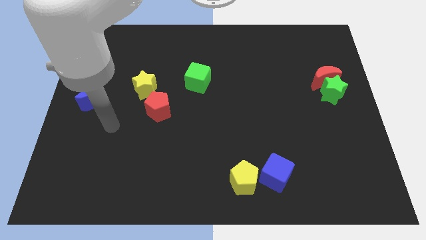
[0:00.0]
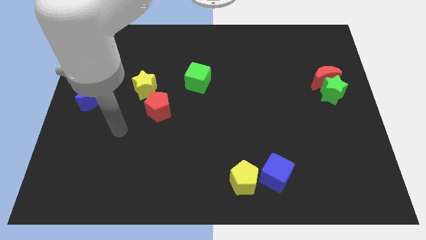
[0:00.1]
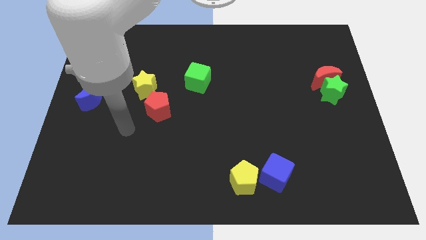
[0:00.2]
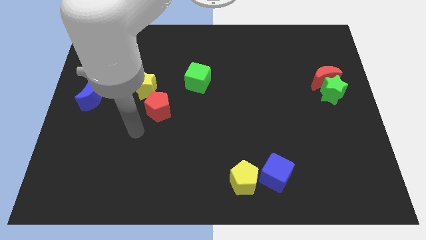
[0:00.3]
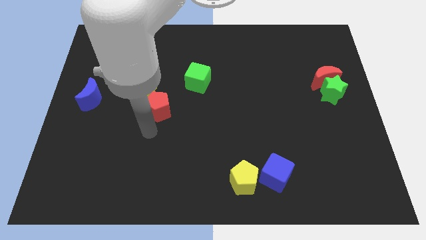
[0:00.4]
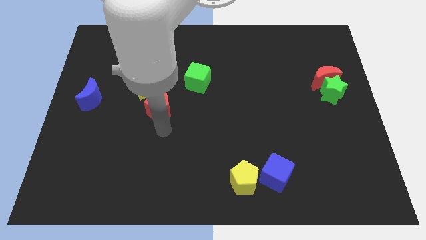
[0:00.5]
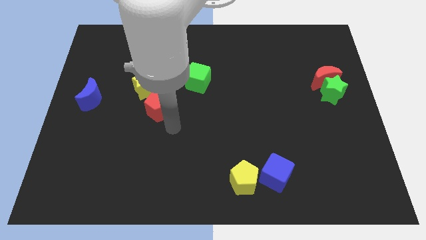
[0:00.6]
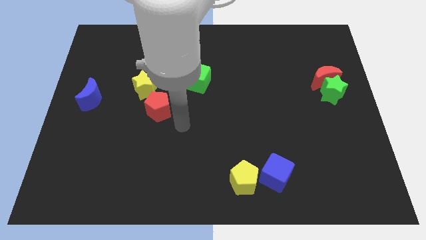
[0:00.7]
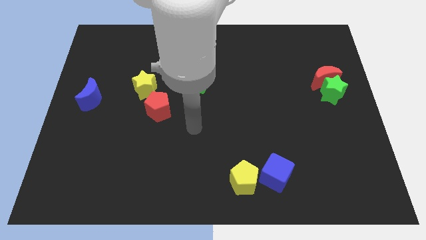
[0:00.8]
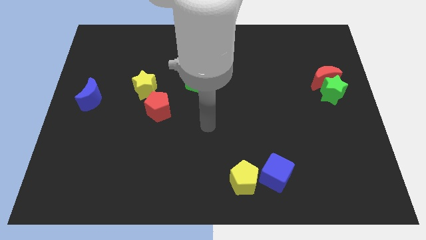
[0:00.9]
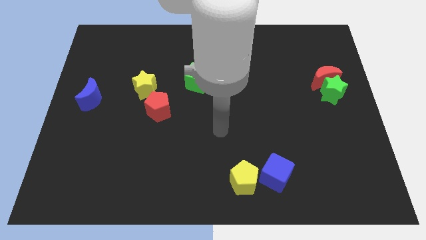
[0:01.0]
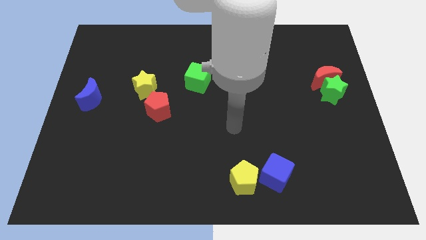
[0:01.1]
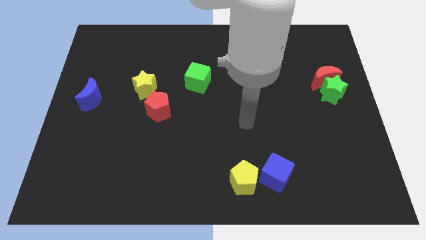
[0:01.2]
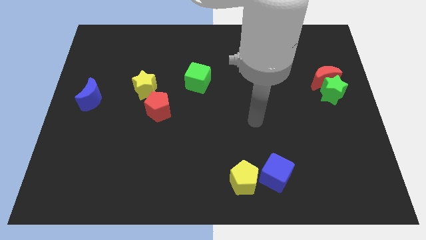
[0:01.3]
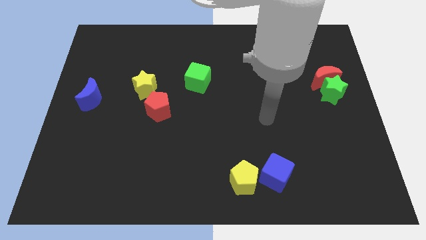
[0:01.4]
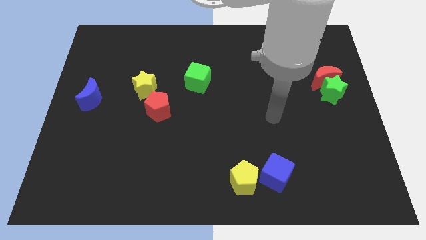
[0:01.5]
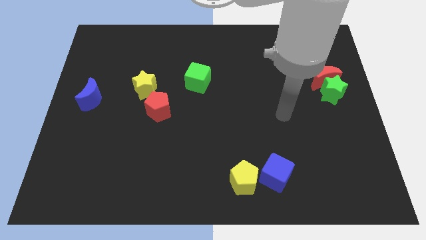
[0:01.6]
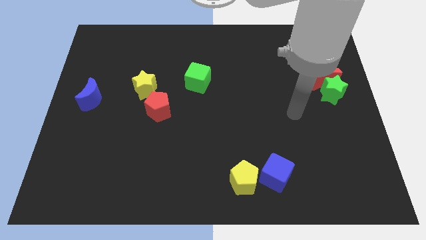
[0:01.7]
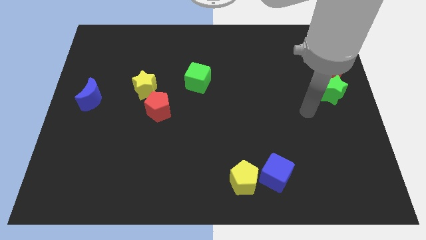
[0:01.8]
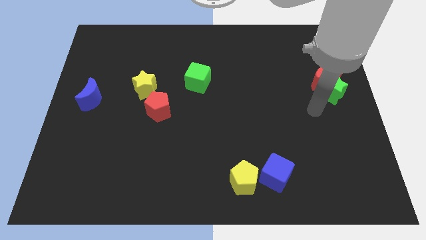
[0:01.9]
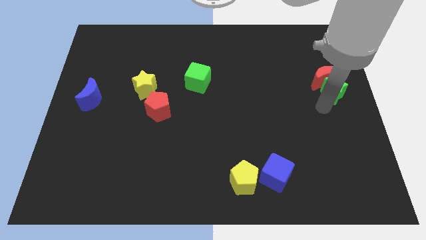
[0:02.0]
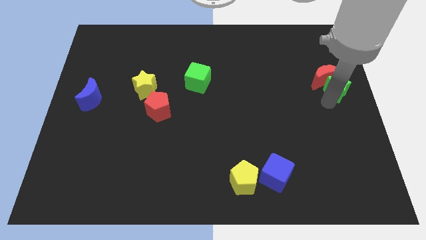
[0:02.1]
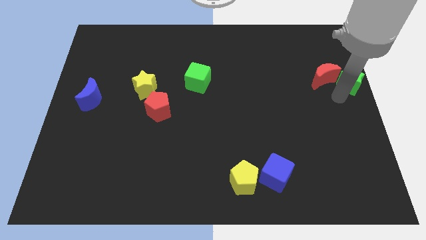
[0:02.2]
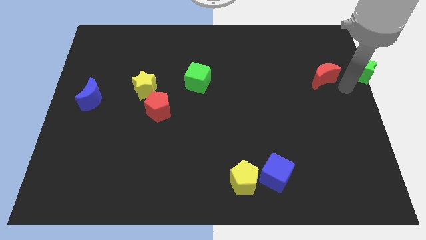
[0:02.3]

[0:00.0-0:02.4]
move the red moon away from the green star

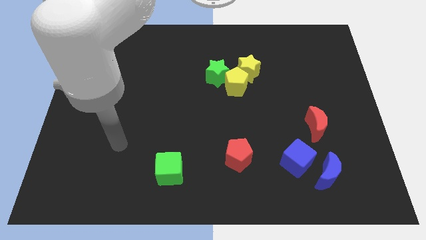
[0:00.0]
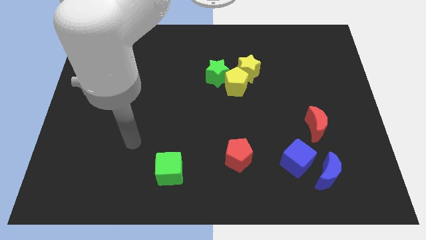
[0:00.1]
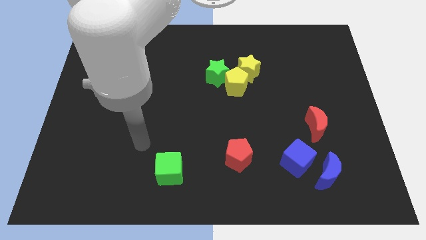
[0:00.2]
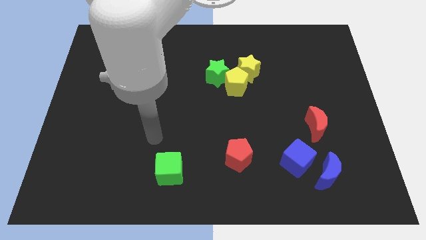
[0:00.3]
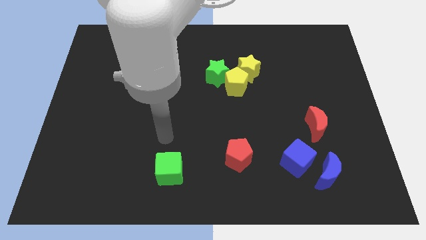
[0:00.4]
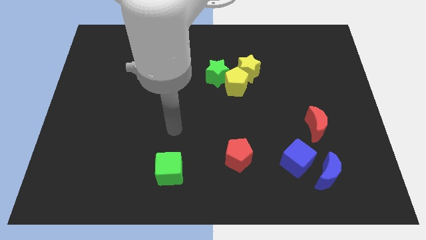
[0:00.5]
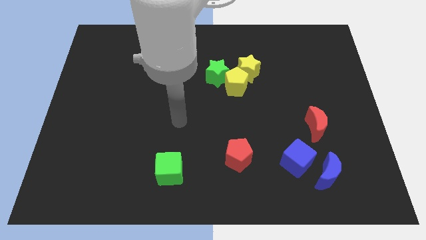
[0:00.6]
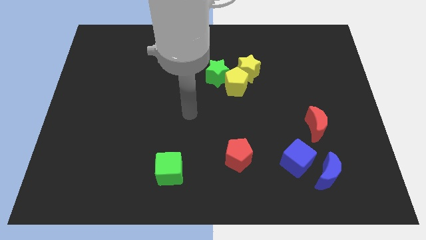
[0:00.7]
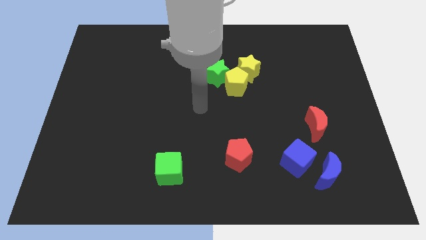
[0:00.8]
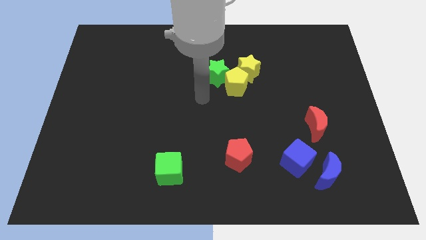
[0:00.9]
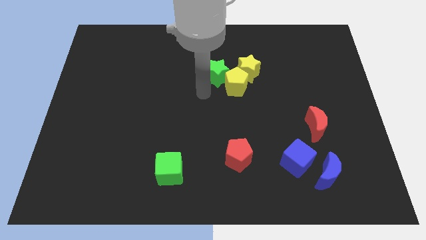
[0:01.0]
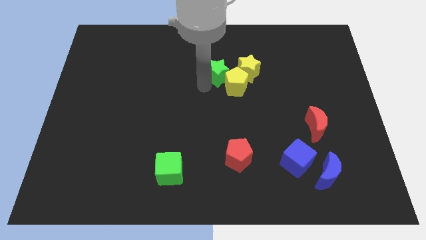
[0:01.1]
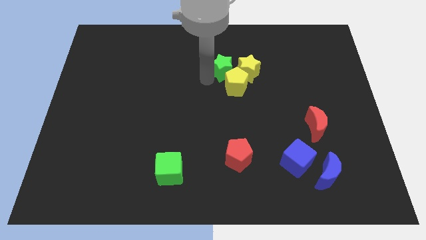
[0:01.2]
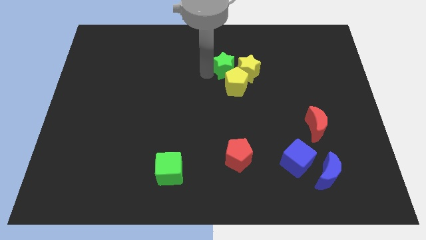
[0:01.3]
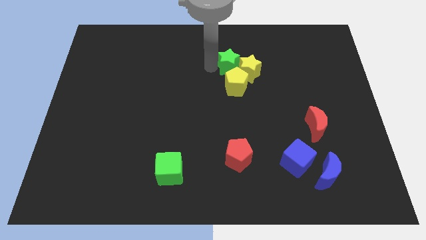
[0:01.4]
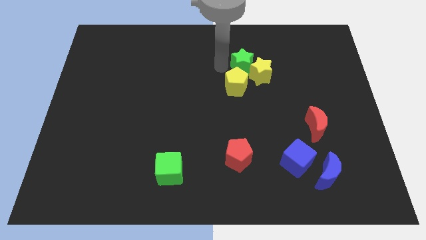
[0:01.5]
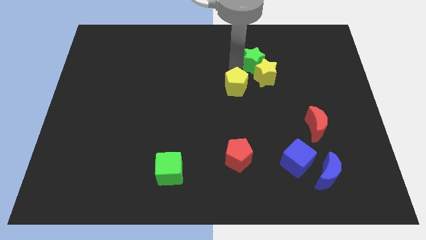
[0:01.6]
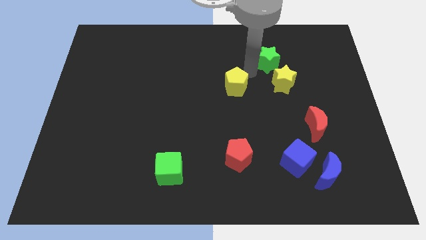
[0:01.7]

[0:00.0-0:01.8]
pull the yellow pentagon apart from the yellow star and green star

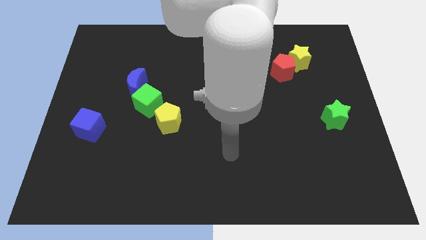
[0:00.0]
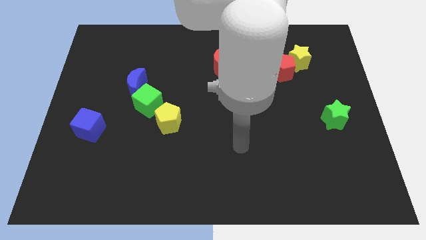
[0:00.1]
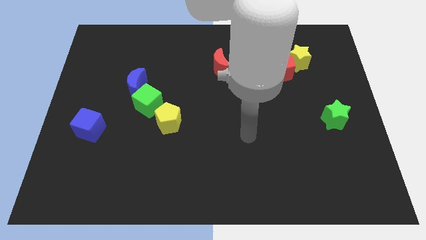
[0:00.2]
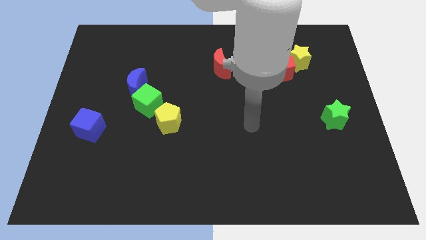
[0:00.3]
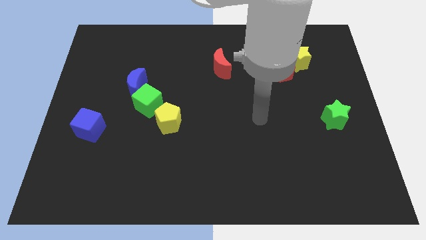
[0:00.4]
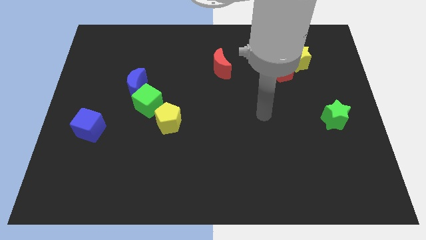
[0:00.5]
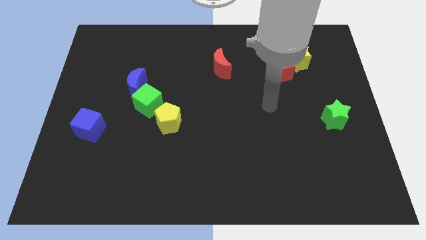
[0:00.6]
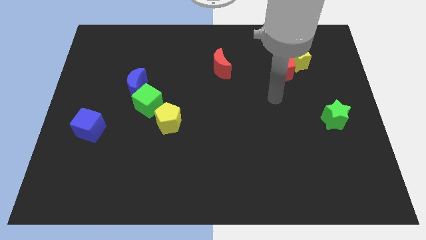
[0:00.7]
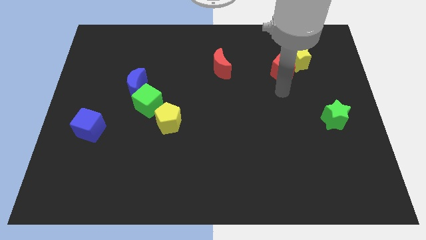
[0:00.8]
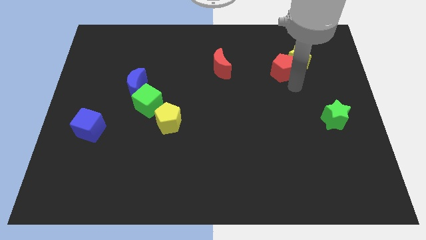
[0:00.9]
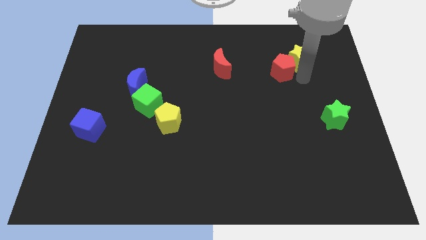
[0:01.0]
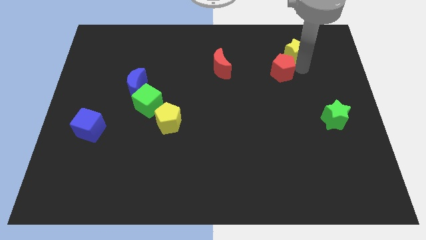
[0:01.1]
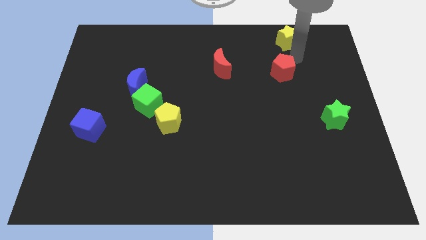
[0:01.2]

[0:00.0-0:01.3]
pull the red pentagon apart from the yellow star

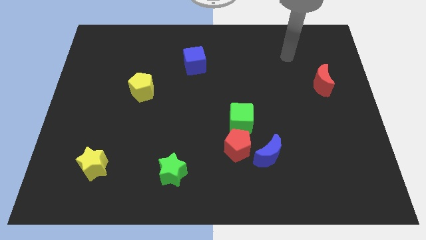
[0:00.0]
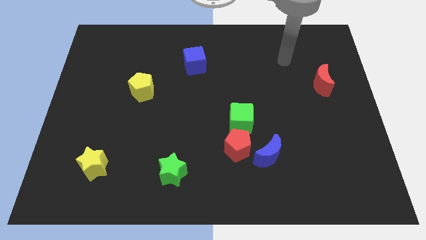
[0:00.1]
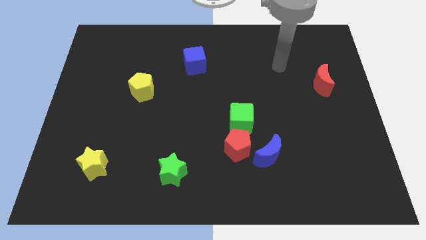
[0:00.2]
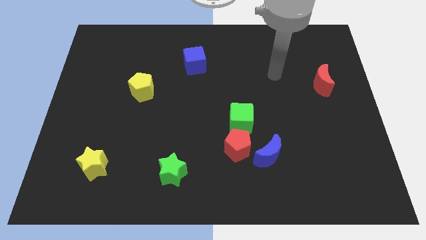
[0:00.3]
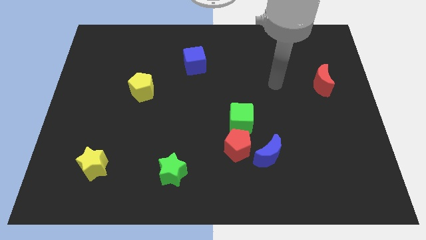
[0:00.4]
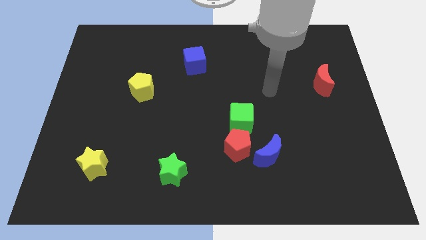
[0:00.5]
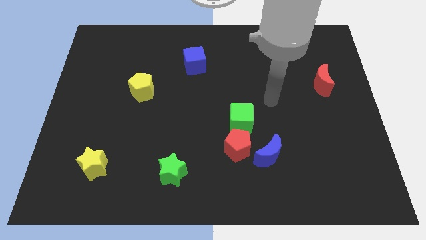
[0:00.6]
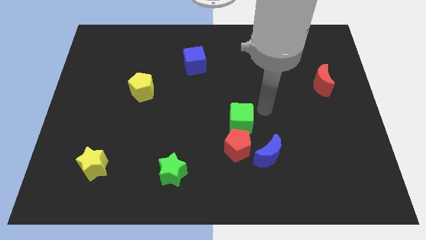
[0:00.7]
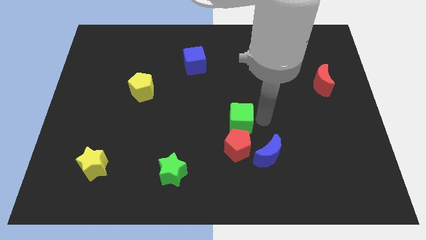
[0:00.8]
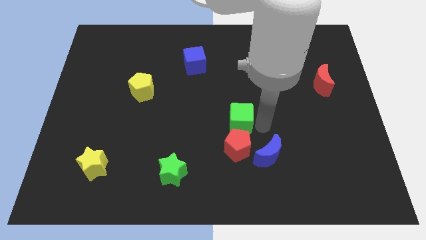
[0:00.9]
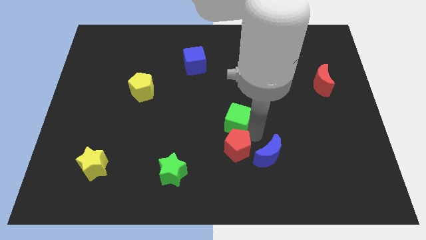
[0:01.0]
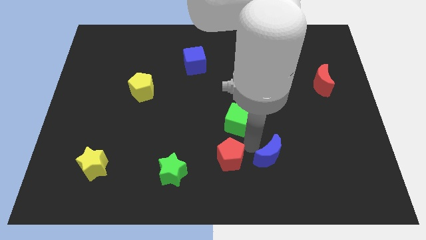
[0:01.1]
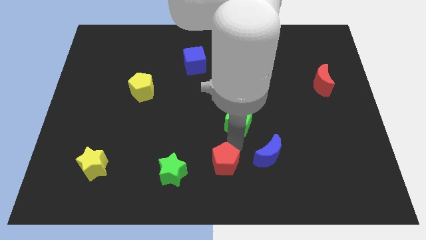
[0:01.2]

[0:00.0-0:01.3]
move the green cube away from the red pentagon

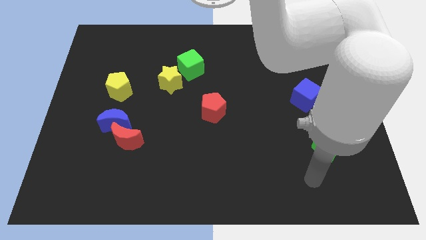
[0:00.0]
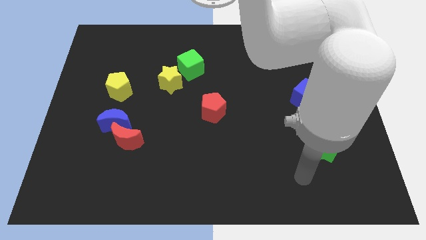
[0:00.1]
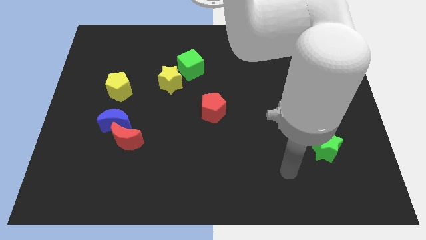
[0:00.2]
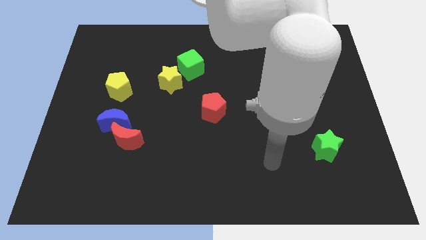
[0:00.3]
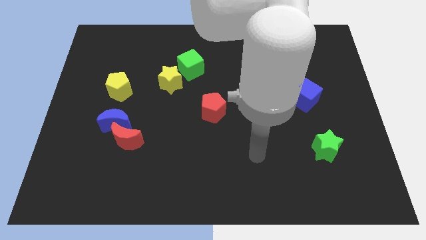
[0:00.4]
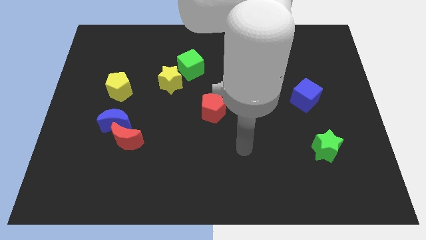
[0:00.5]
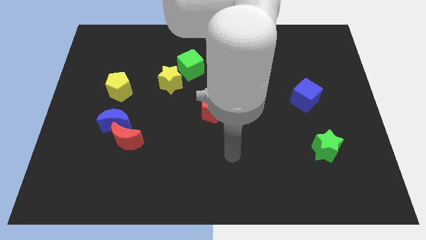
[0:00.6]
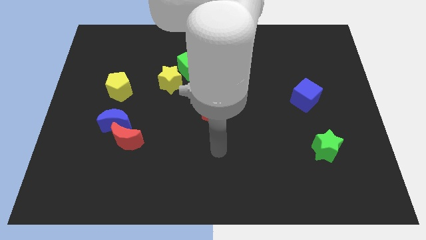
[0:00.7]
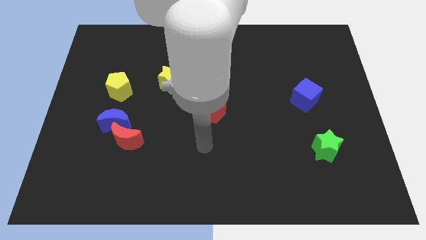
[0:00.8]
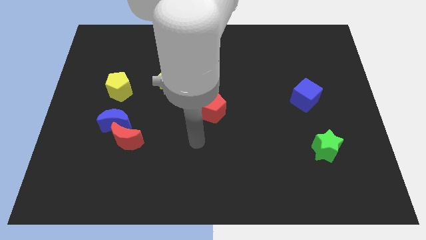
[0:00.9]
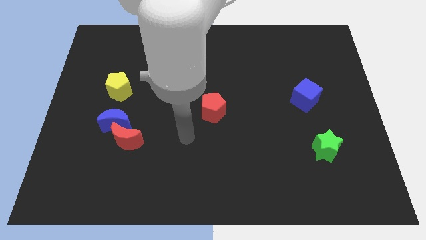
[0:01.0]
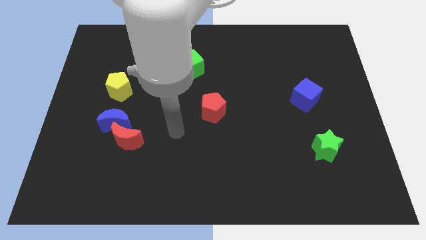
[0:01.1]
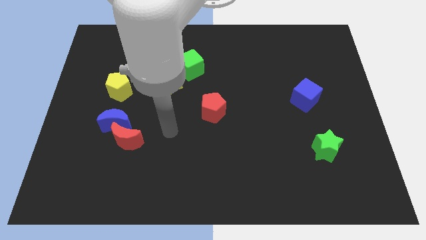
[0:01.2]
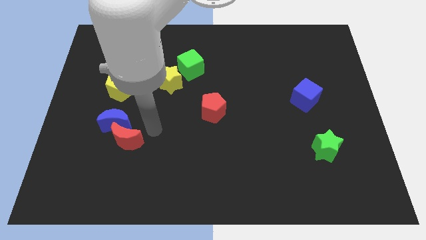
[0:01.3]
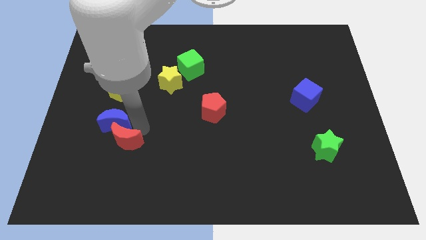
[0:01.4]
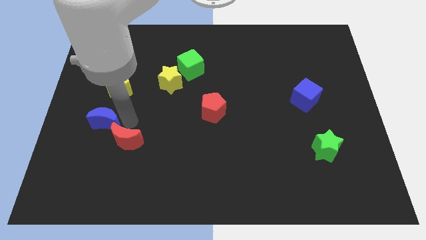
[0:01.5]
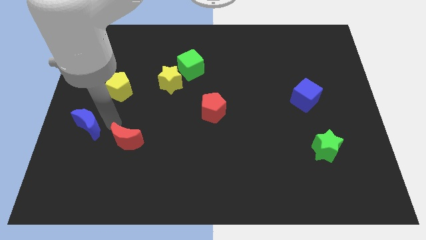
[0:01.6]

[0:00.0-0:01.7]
move the red moon away from the blue moon

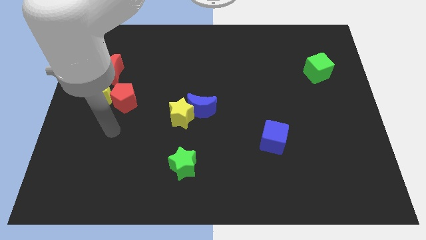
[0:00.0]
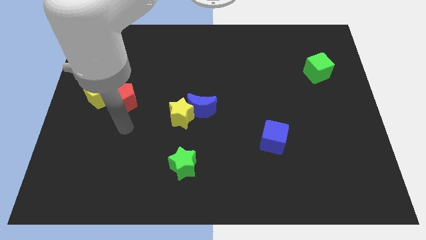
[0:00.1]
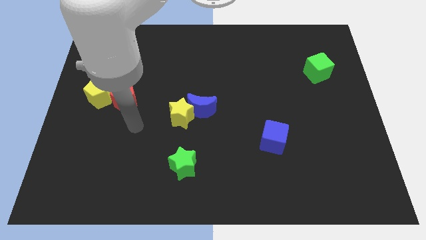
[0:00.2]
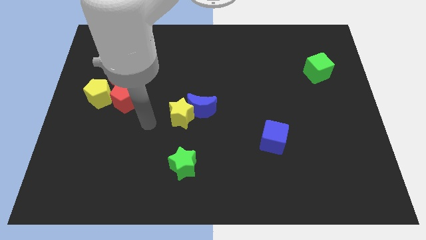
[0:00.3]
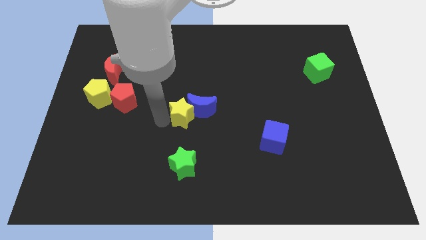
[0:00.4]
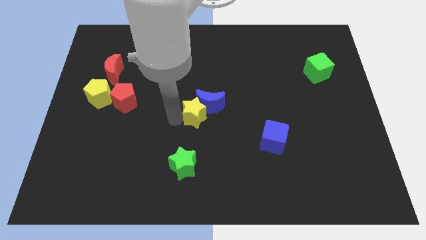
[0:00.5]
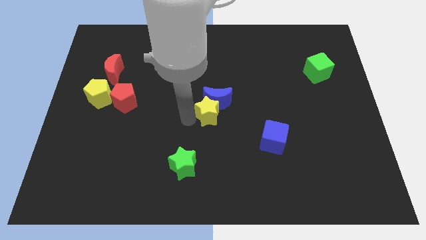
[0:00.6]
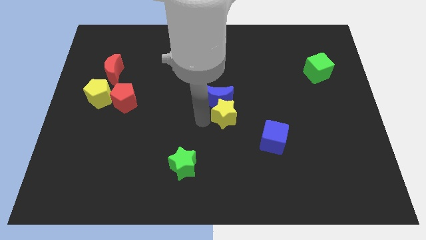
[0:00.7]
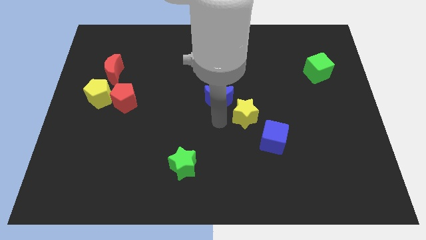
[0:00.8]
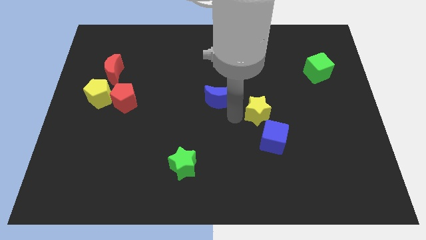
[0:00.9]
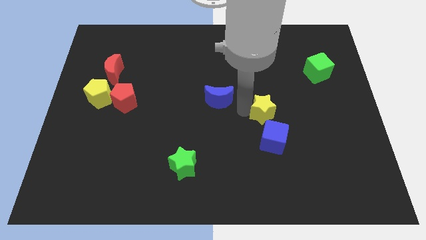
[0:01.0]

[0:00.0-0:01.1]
move the blue moon away from the yellow star
